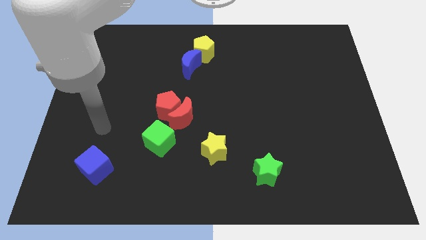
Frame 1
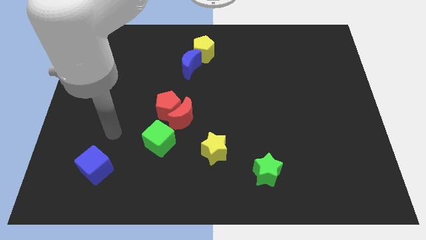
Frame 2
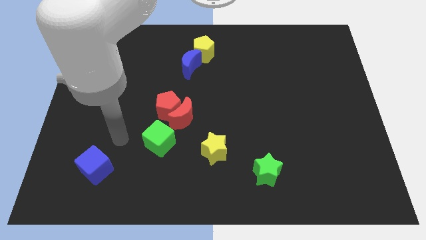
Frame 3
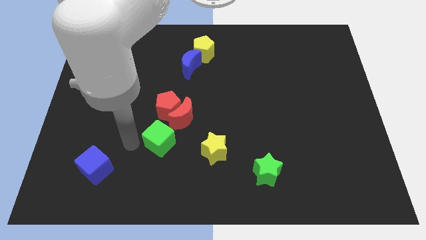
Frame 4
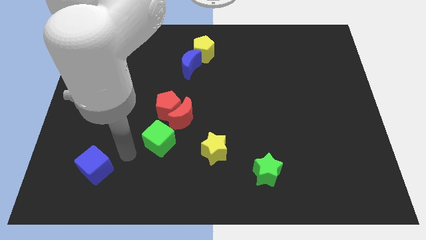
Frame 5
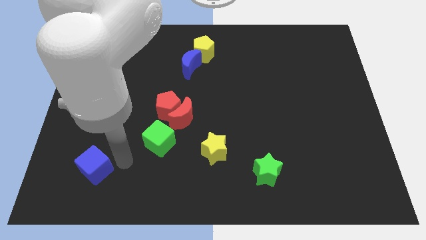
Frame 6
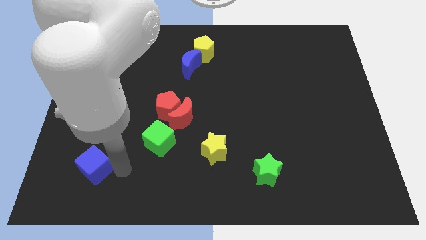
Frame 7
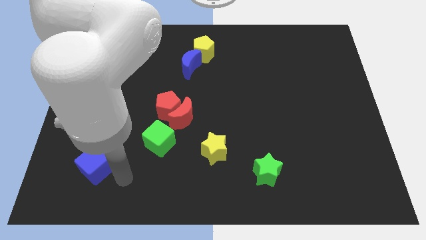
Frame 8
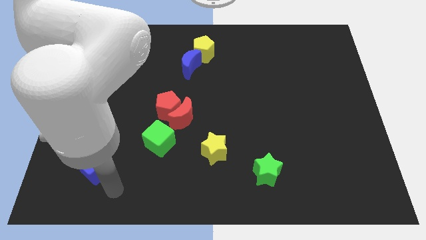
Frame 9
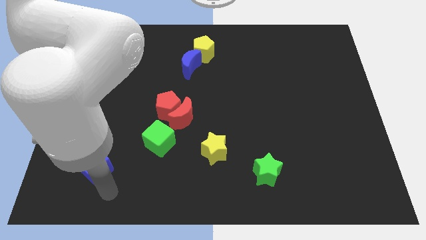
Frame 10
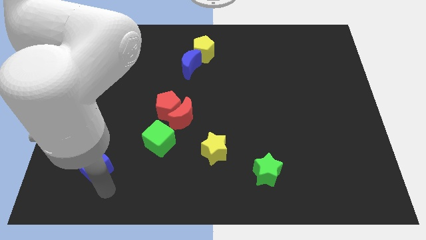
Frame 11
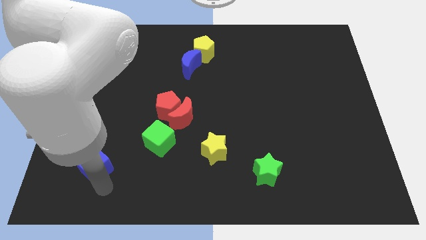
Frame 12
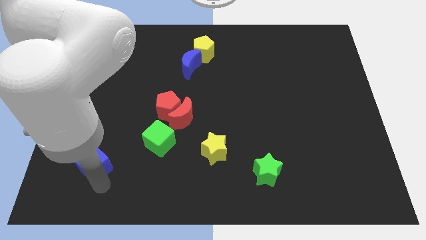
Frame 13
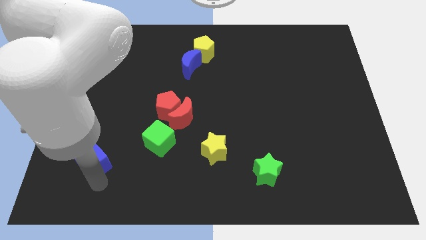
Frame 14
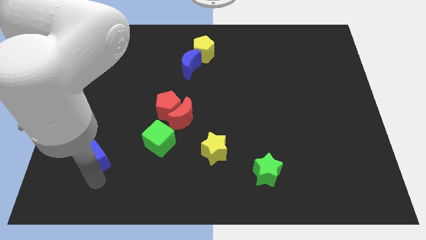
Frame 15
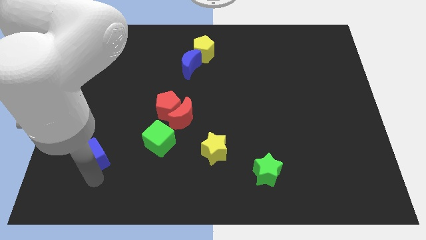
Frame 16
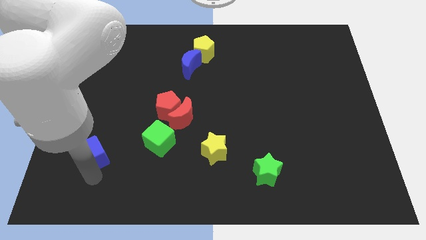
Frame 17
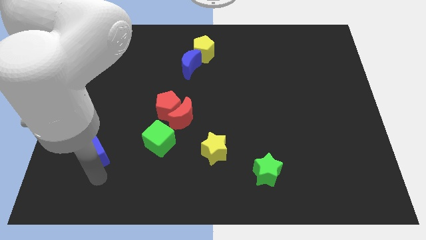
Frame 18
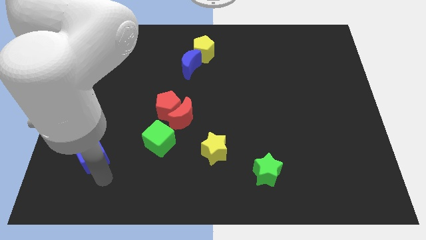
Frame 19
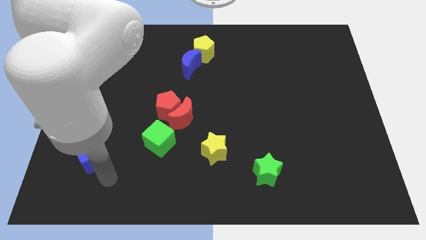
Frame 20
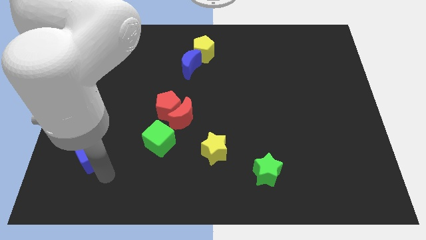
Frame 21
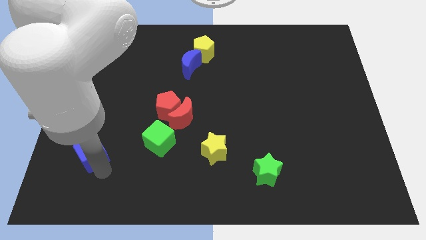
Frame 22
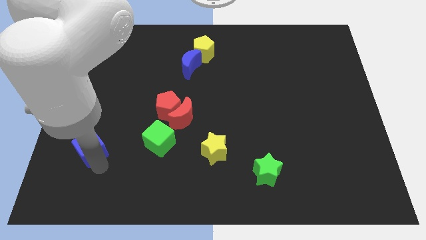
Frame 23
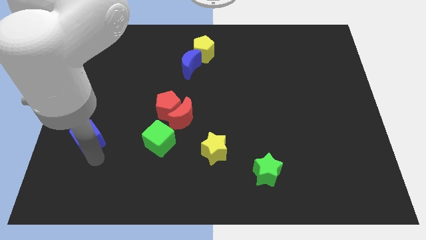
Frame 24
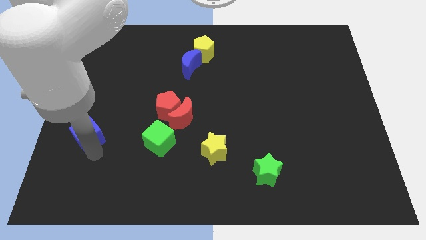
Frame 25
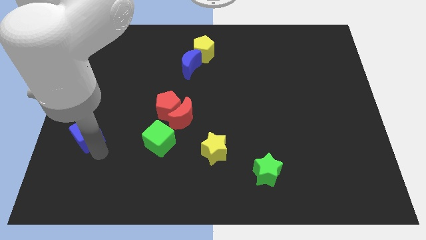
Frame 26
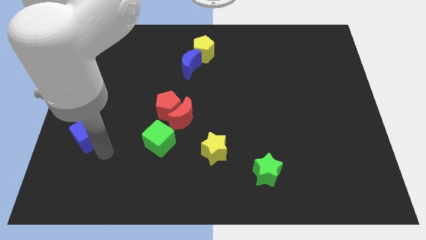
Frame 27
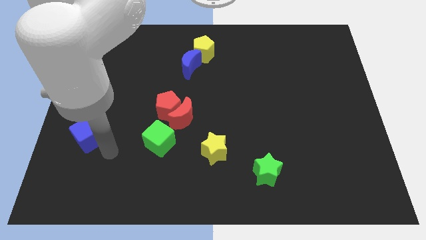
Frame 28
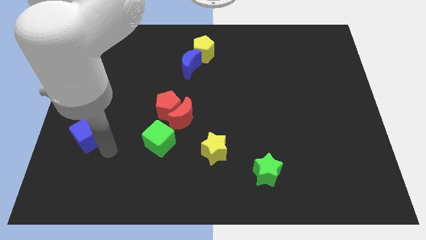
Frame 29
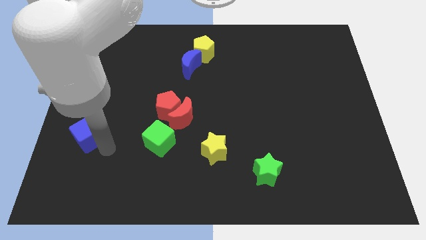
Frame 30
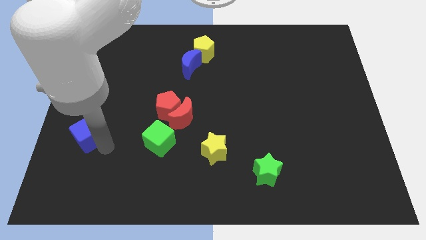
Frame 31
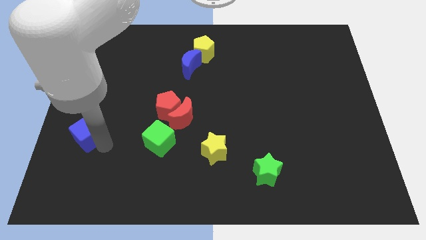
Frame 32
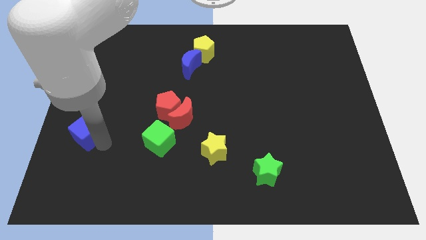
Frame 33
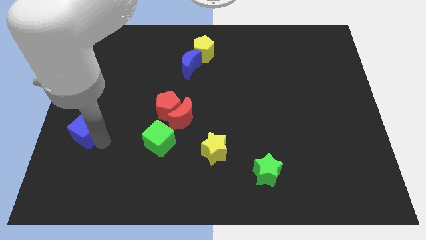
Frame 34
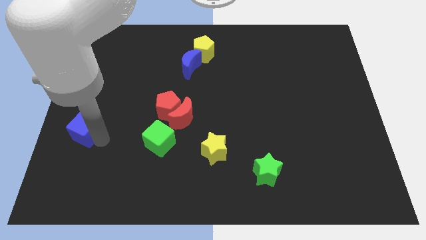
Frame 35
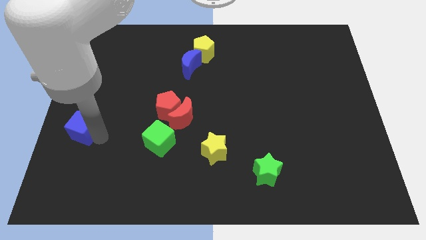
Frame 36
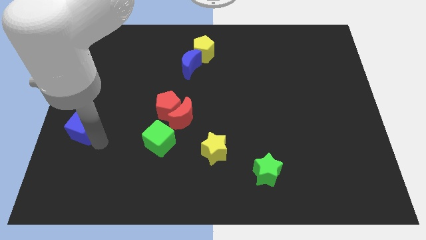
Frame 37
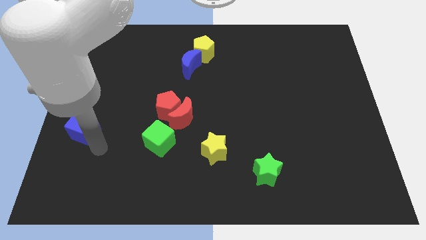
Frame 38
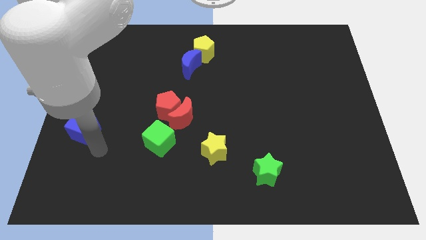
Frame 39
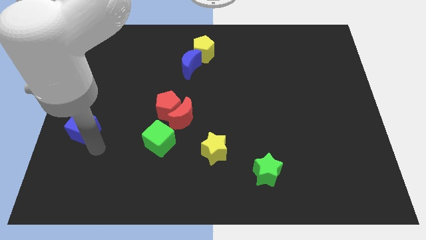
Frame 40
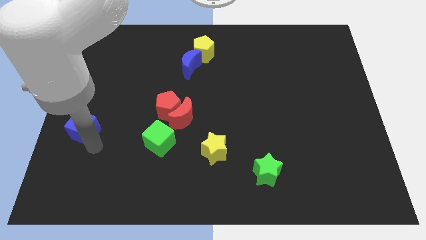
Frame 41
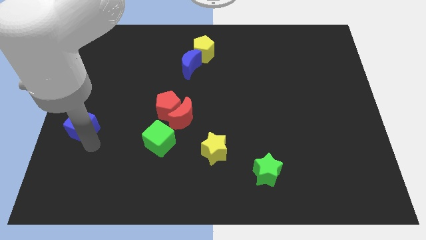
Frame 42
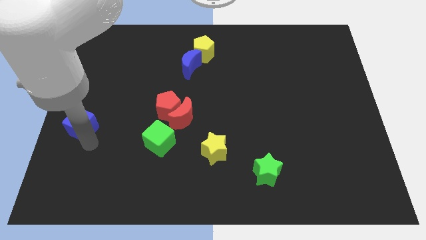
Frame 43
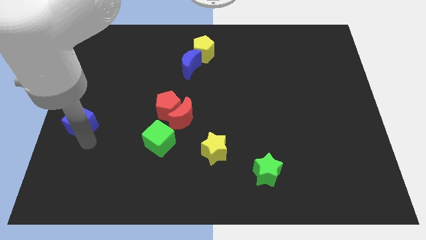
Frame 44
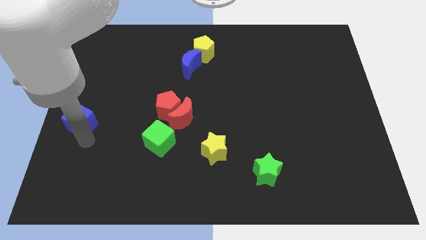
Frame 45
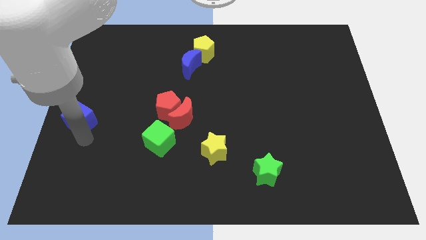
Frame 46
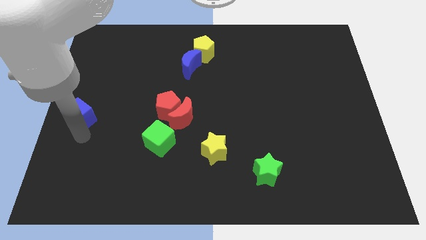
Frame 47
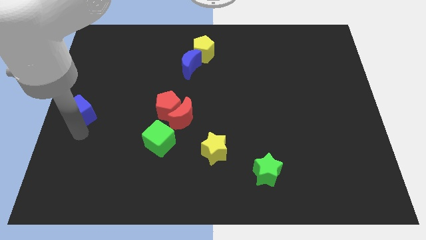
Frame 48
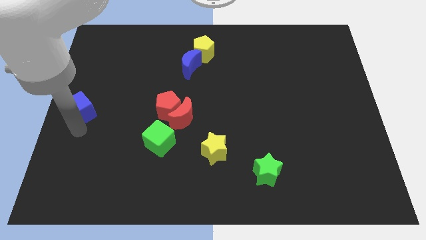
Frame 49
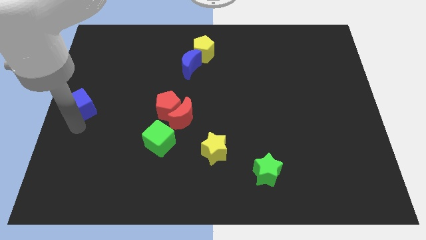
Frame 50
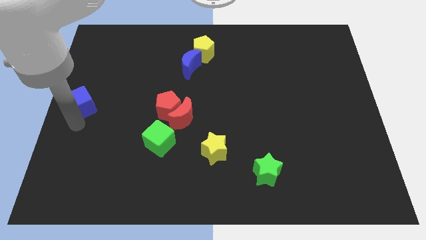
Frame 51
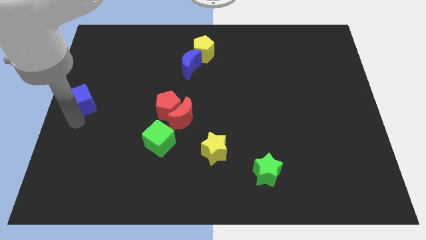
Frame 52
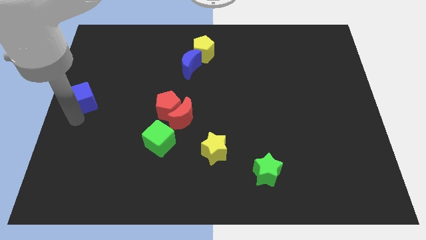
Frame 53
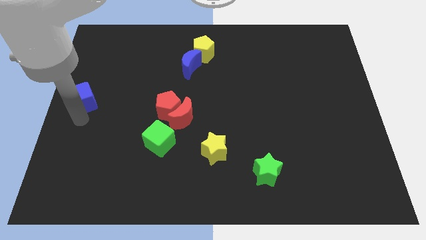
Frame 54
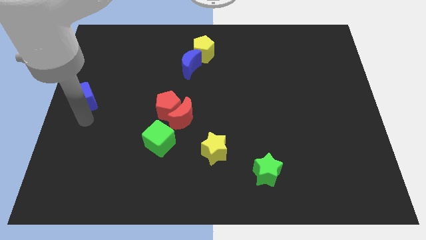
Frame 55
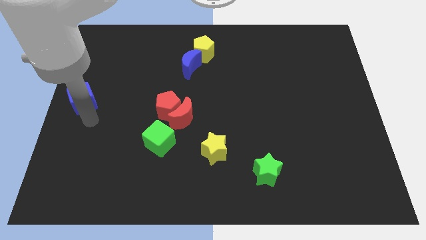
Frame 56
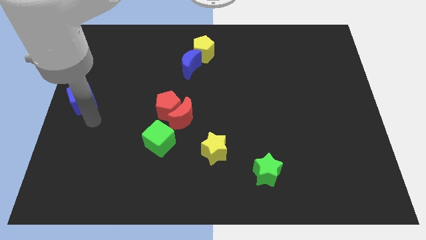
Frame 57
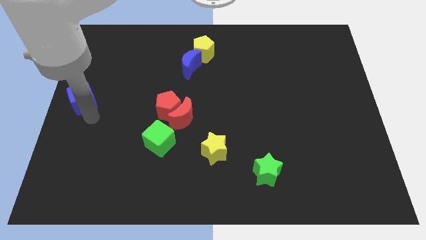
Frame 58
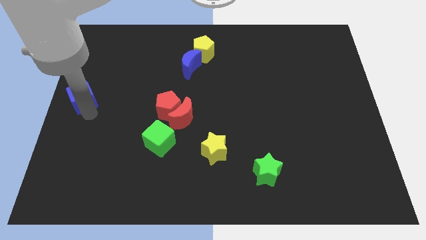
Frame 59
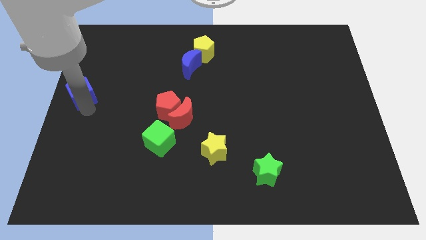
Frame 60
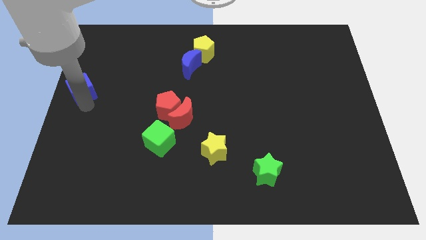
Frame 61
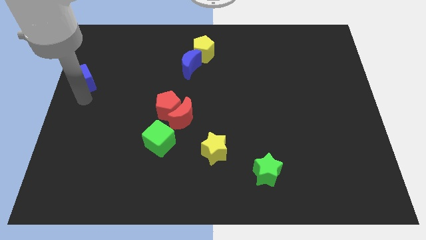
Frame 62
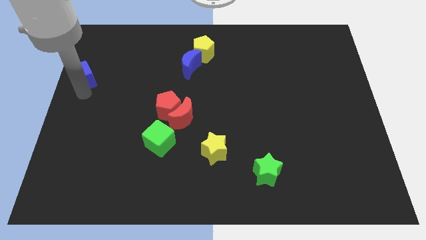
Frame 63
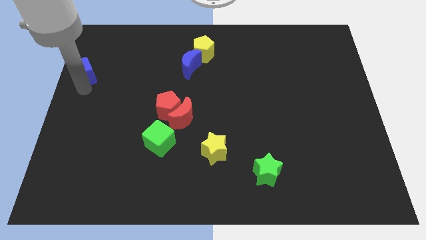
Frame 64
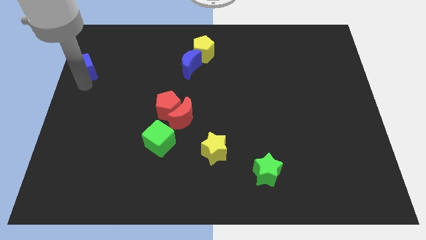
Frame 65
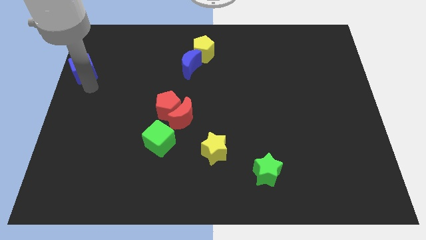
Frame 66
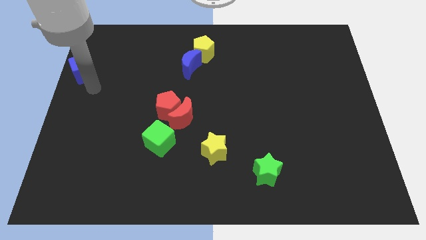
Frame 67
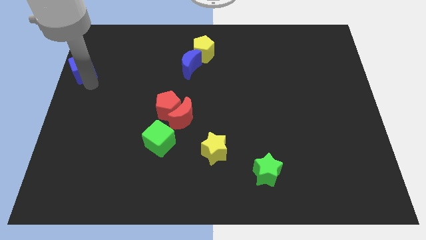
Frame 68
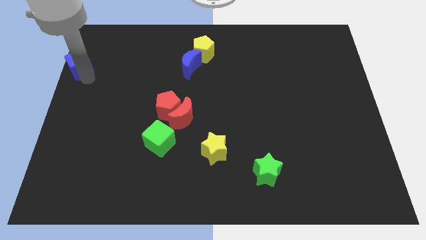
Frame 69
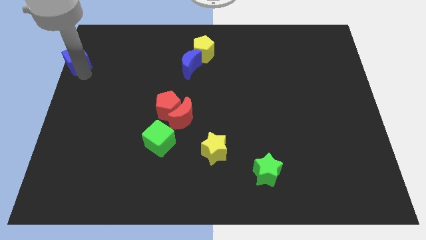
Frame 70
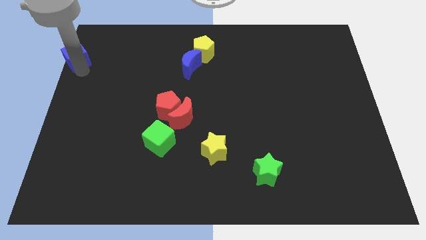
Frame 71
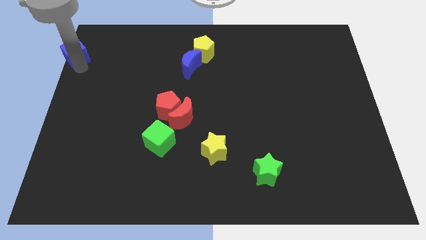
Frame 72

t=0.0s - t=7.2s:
move the blue cube to the top left of the board
